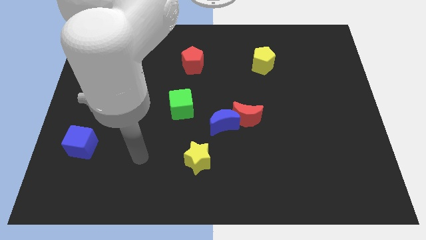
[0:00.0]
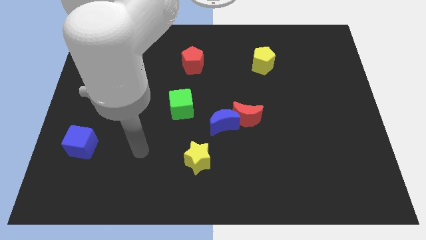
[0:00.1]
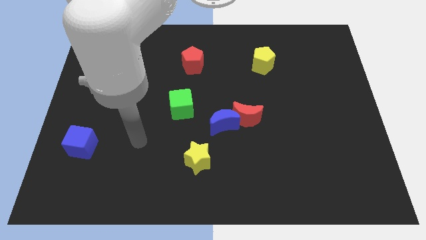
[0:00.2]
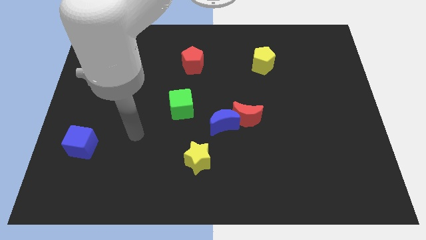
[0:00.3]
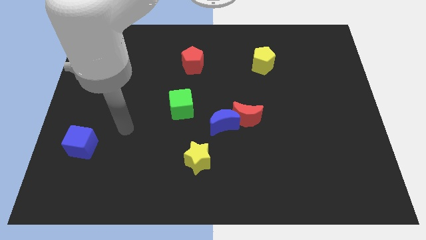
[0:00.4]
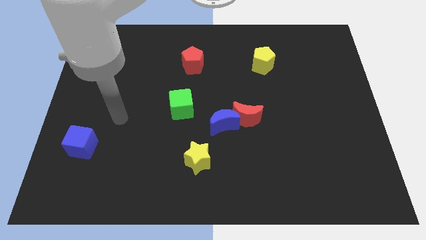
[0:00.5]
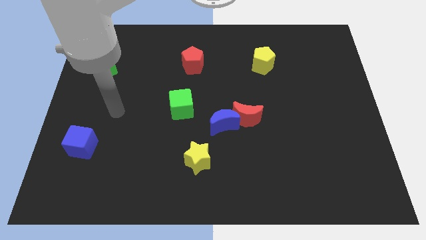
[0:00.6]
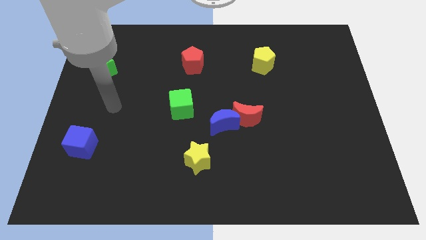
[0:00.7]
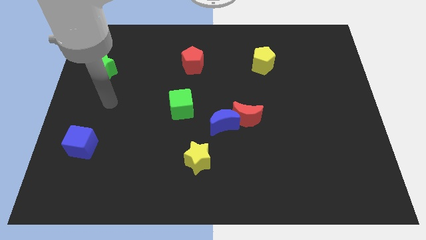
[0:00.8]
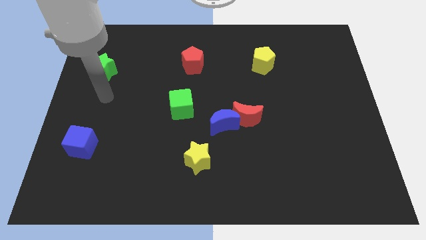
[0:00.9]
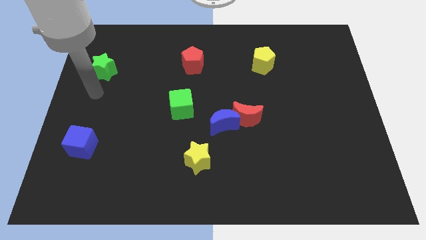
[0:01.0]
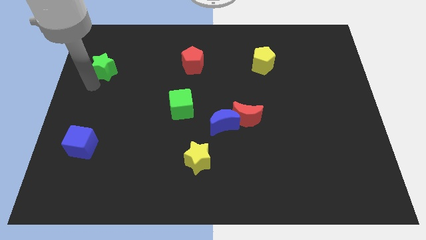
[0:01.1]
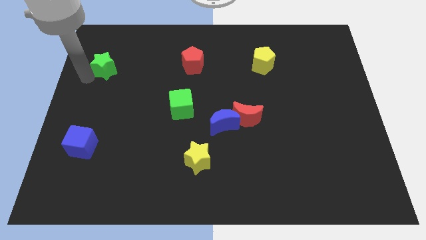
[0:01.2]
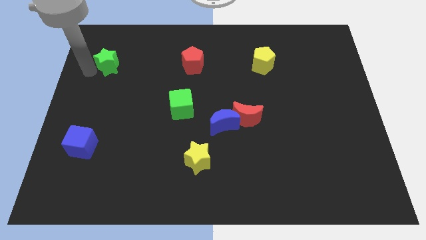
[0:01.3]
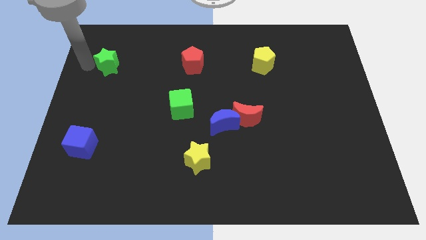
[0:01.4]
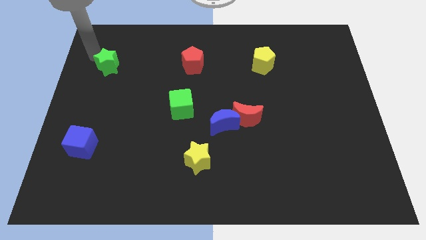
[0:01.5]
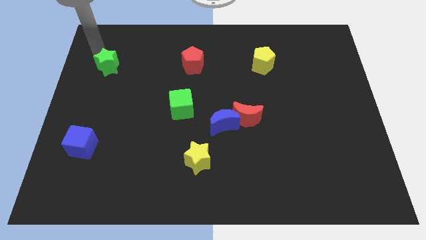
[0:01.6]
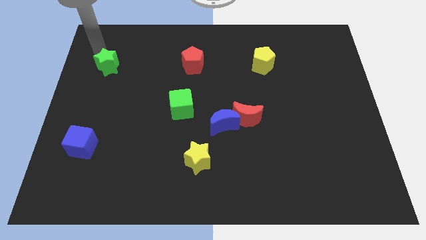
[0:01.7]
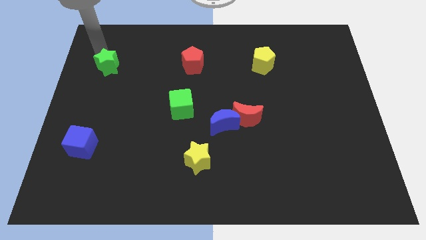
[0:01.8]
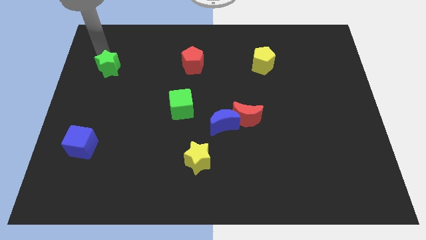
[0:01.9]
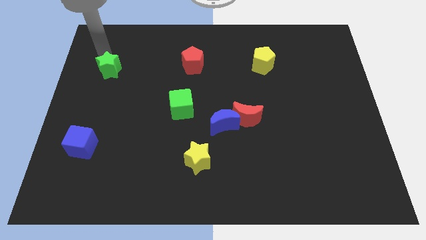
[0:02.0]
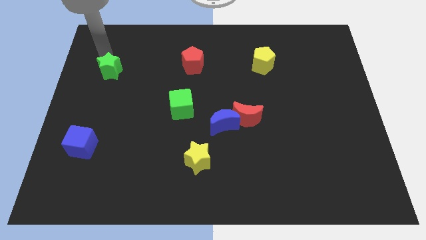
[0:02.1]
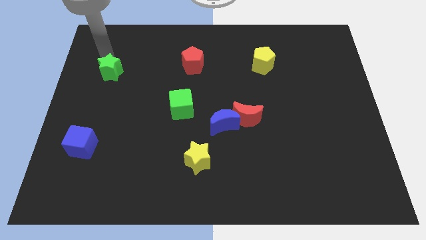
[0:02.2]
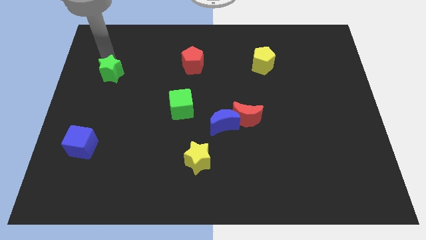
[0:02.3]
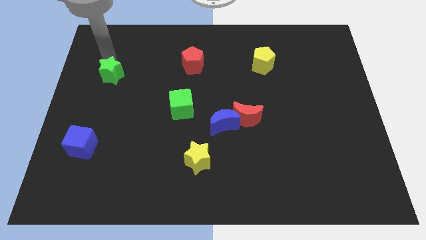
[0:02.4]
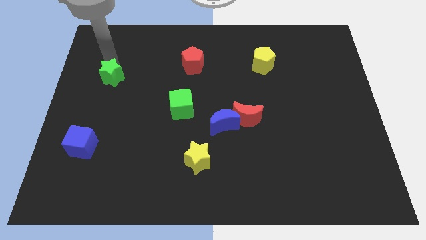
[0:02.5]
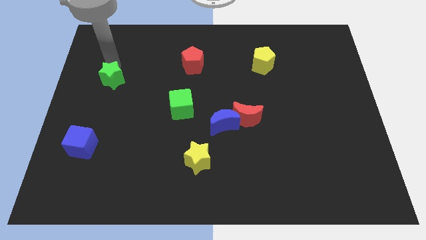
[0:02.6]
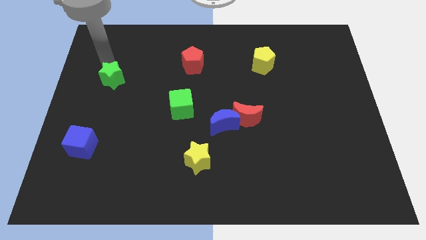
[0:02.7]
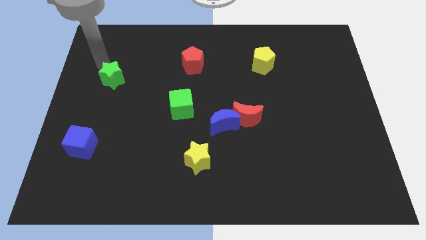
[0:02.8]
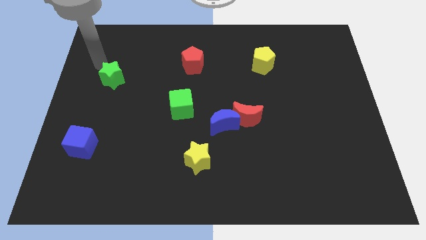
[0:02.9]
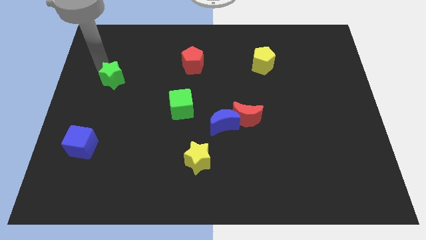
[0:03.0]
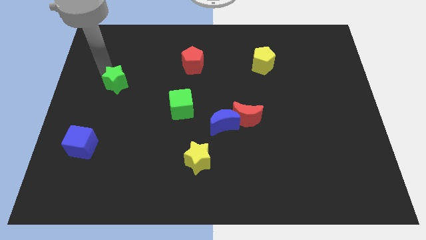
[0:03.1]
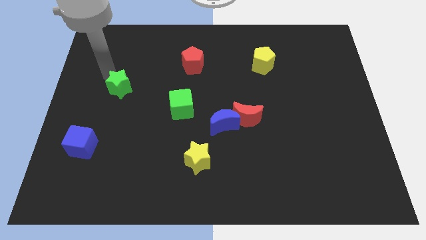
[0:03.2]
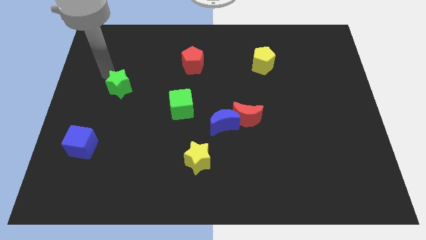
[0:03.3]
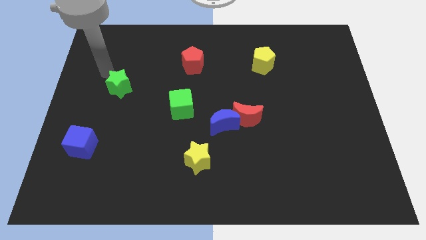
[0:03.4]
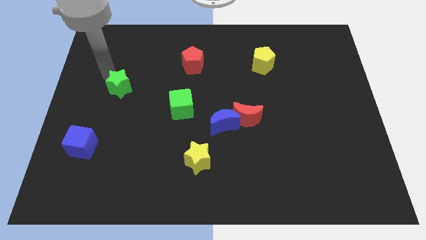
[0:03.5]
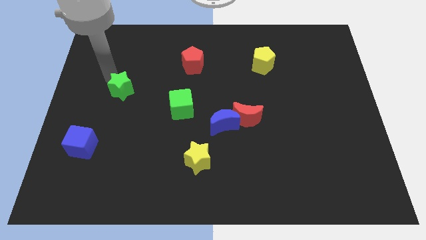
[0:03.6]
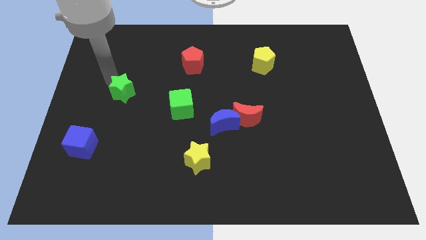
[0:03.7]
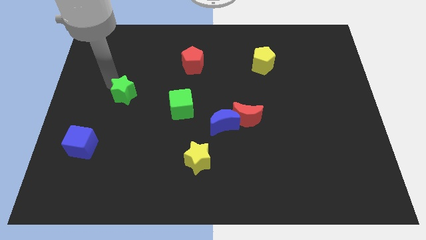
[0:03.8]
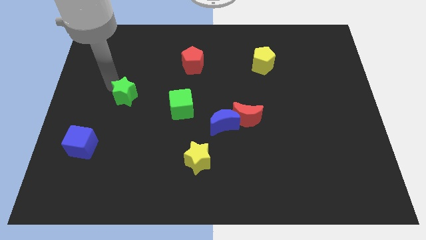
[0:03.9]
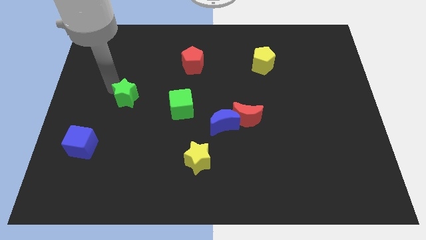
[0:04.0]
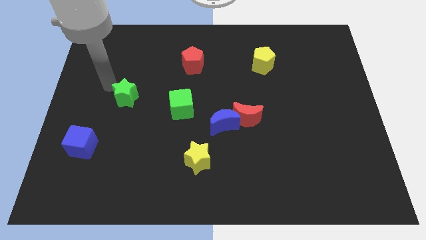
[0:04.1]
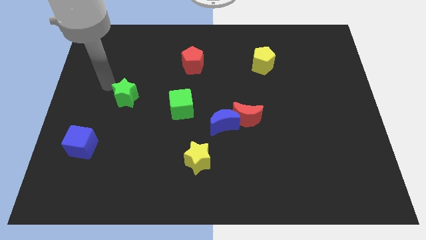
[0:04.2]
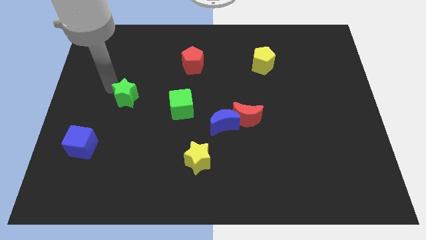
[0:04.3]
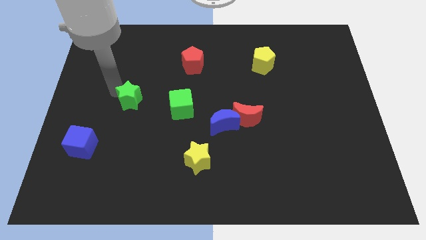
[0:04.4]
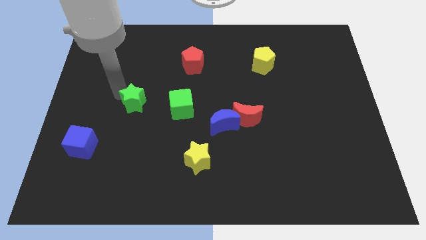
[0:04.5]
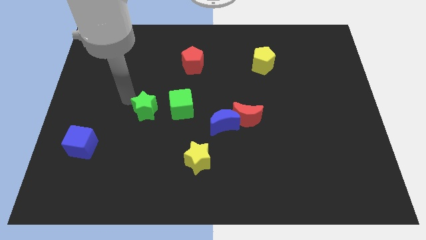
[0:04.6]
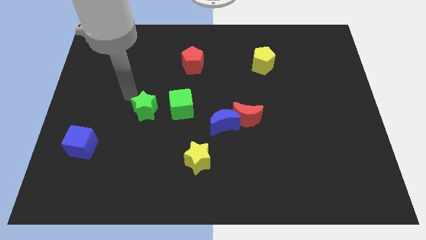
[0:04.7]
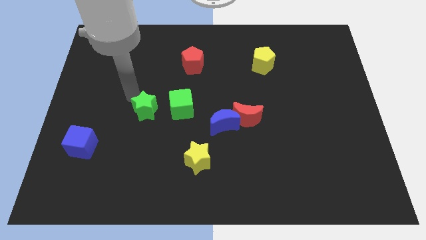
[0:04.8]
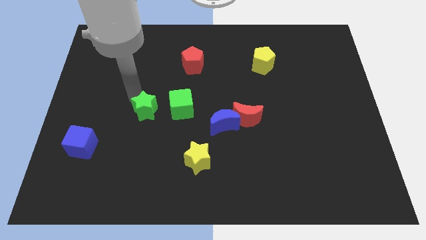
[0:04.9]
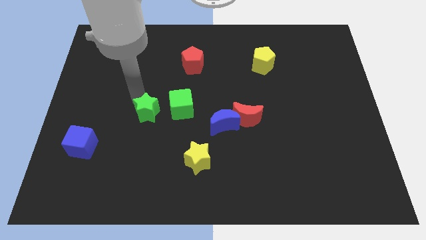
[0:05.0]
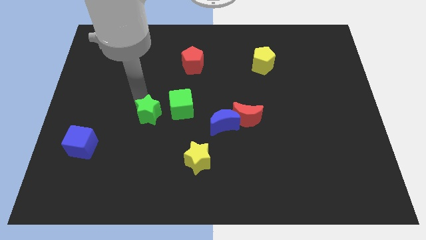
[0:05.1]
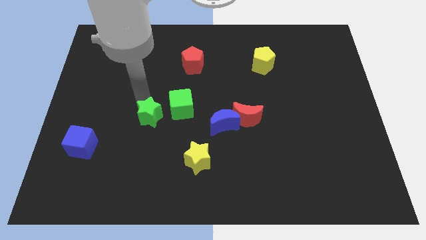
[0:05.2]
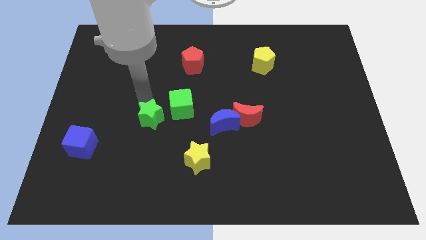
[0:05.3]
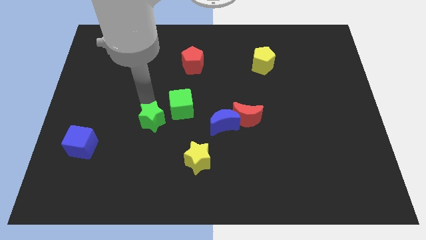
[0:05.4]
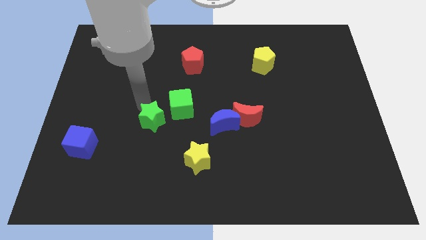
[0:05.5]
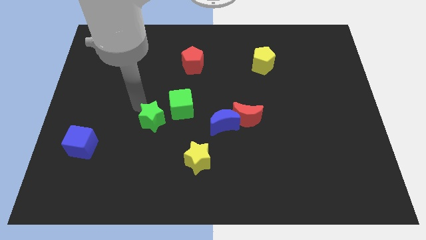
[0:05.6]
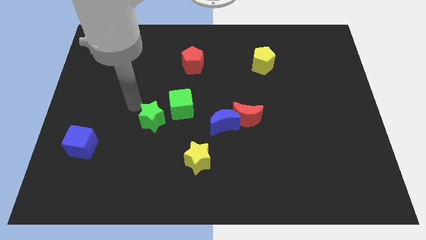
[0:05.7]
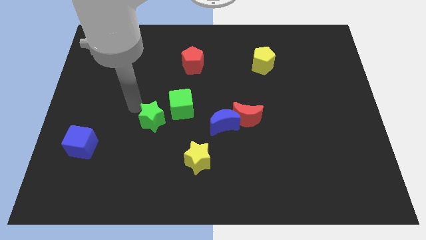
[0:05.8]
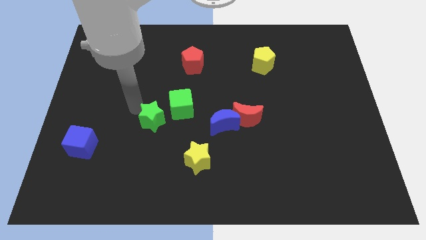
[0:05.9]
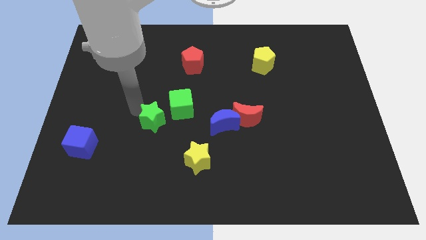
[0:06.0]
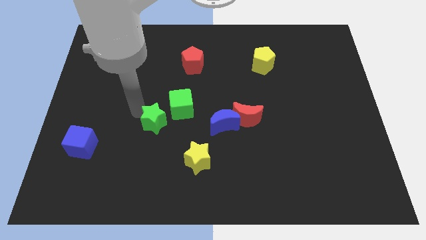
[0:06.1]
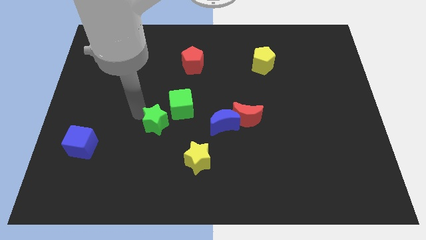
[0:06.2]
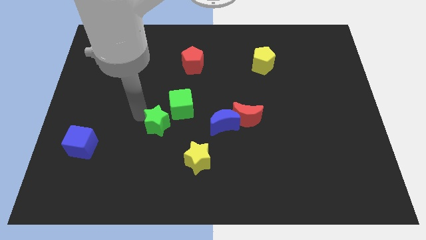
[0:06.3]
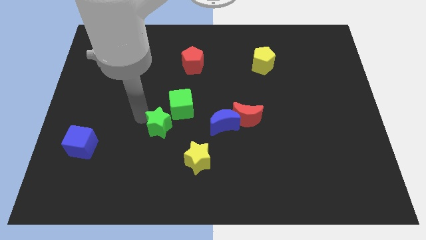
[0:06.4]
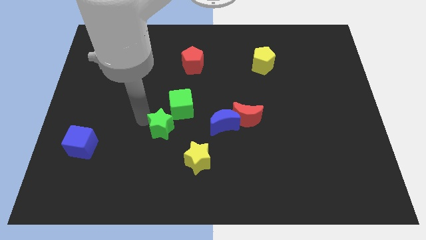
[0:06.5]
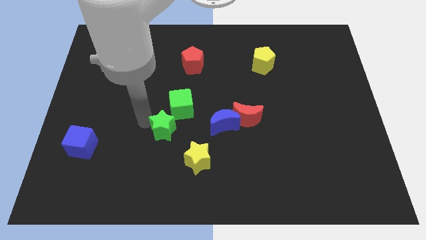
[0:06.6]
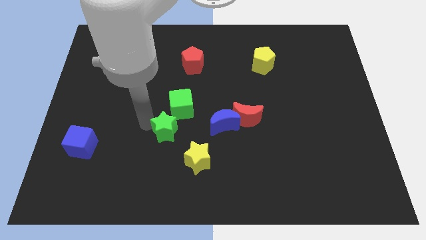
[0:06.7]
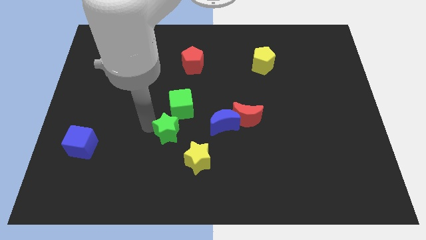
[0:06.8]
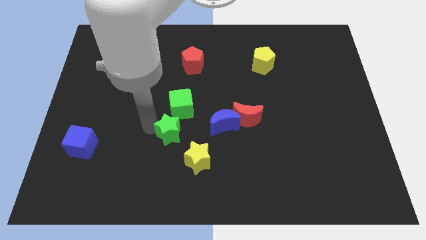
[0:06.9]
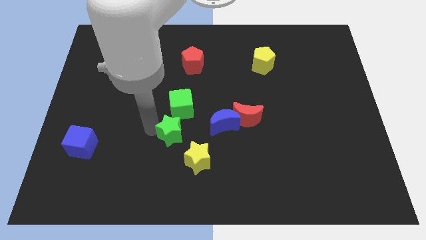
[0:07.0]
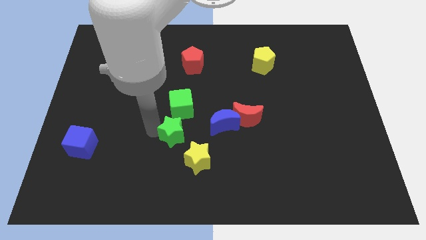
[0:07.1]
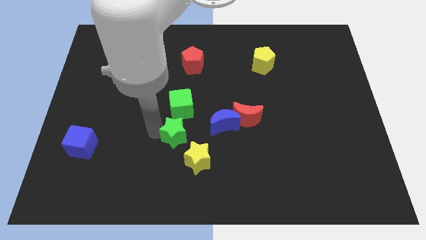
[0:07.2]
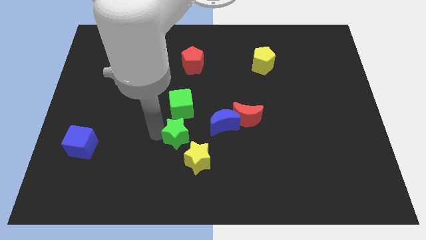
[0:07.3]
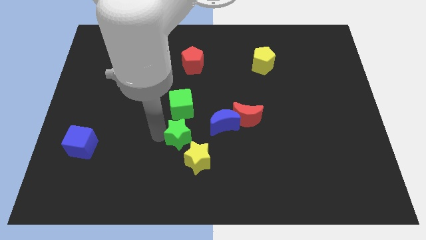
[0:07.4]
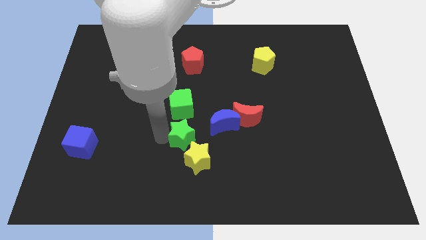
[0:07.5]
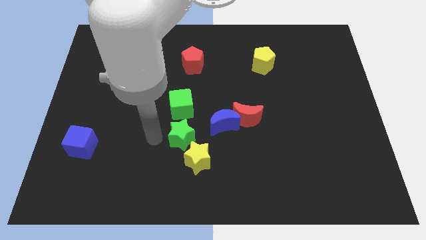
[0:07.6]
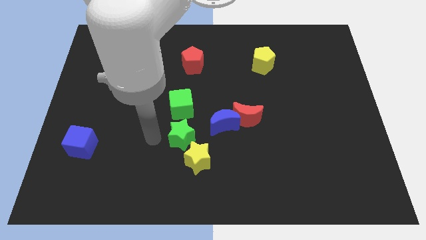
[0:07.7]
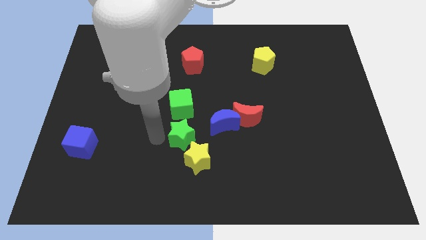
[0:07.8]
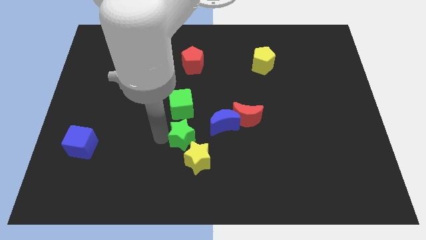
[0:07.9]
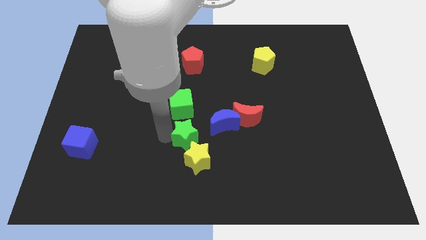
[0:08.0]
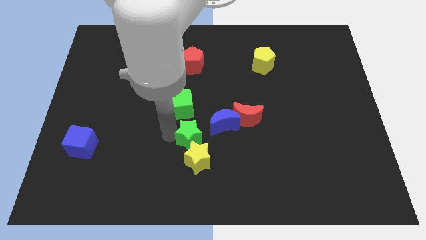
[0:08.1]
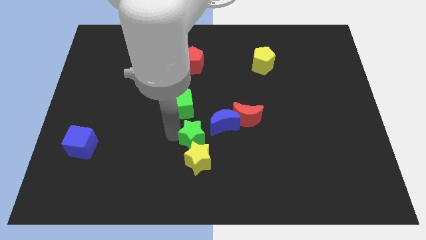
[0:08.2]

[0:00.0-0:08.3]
move the green star diagonally up and to the right of the yellow star
